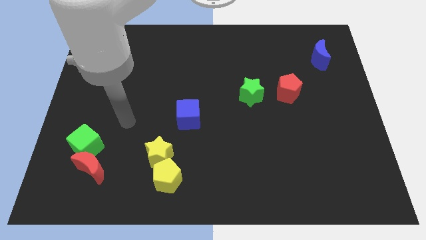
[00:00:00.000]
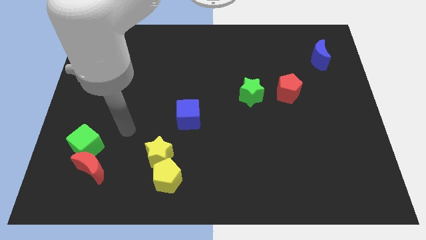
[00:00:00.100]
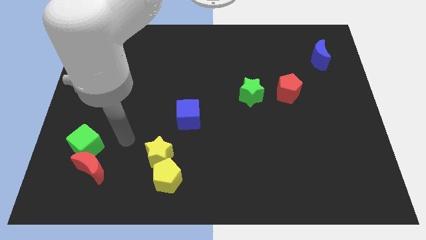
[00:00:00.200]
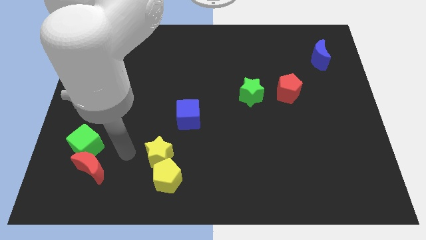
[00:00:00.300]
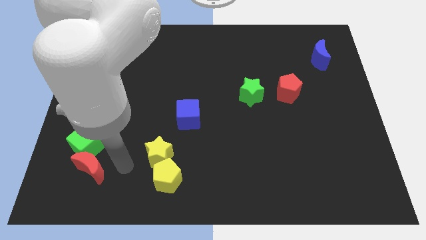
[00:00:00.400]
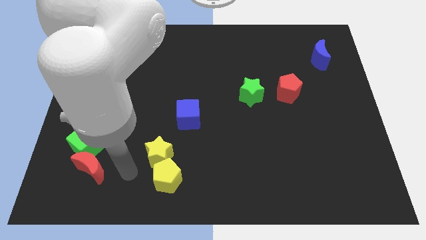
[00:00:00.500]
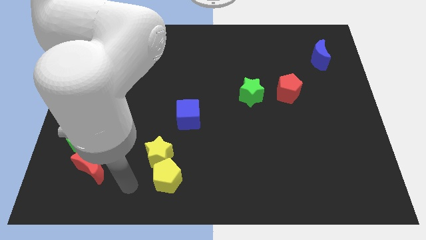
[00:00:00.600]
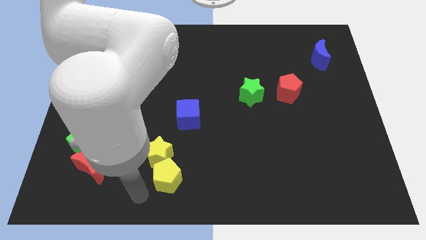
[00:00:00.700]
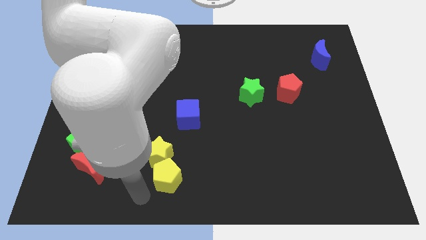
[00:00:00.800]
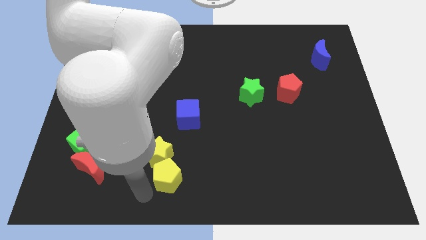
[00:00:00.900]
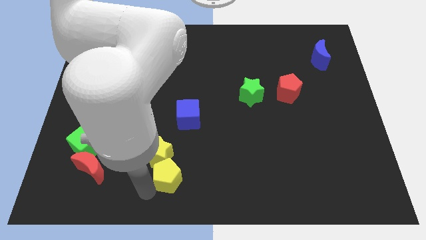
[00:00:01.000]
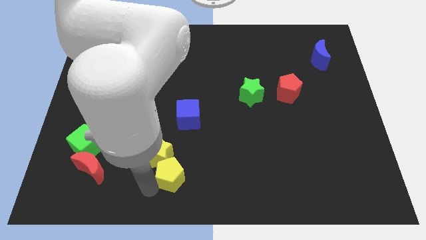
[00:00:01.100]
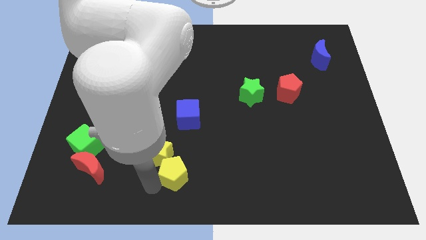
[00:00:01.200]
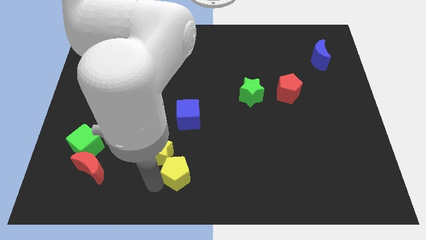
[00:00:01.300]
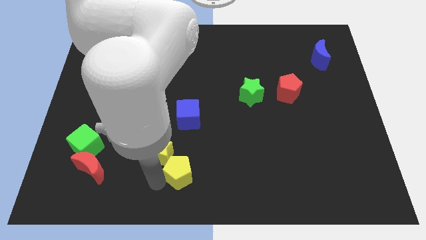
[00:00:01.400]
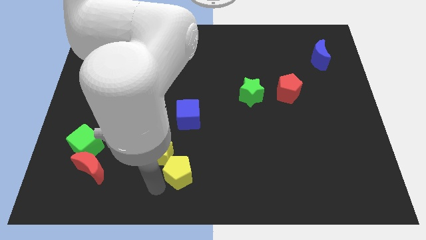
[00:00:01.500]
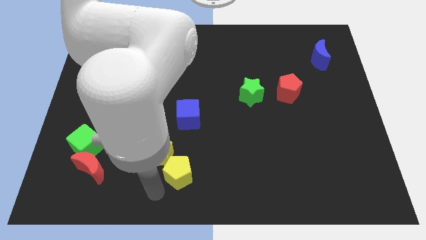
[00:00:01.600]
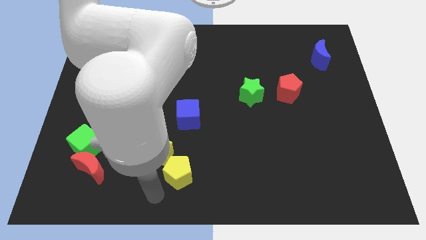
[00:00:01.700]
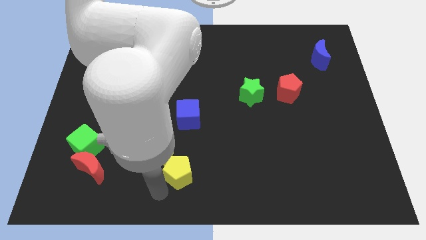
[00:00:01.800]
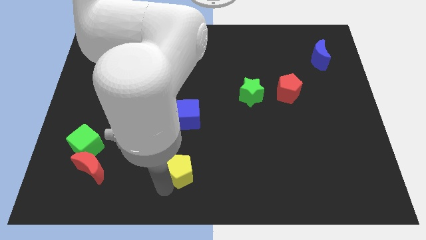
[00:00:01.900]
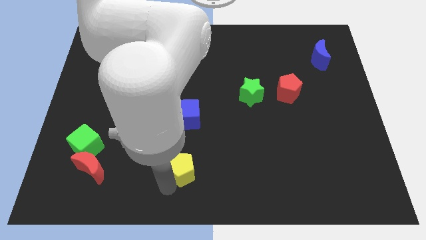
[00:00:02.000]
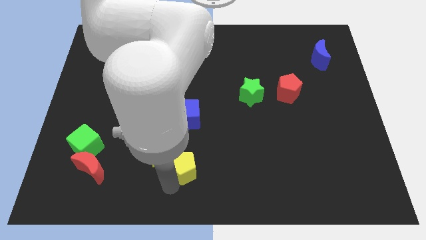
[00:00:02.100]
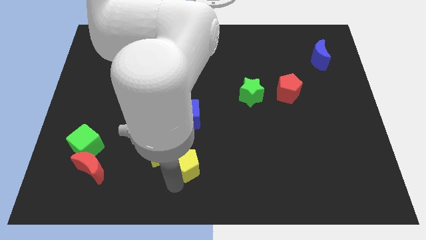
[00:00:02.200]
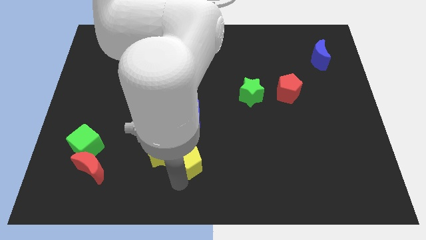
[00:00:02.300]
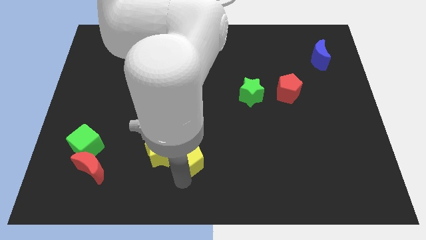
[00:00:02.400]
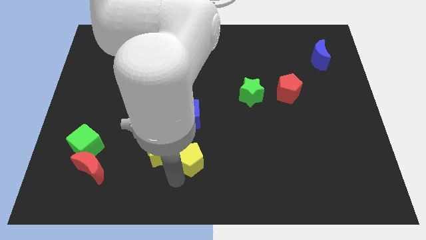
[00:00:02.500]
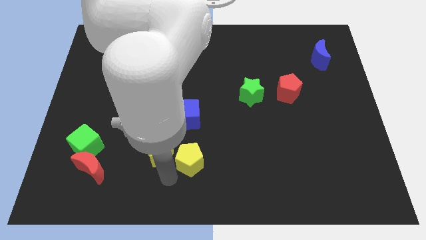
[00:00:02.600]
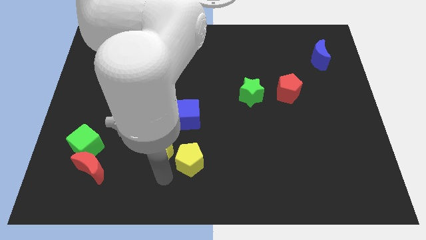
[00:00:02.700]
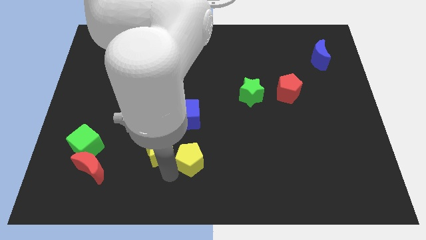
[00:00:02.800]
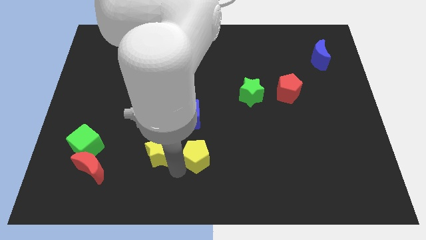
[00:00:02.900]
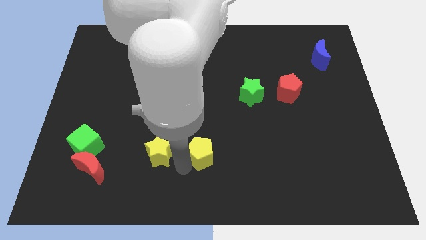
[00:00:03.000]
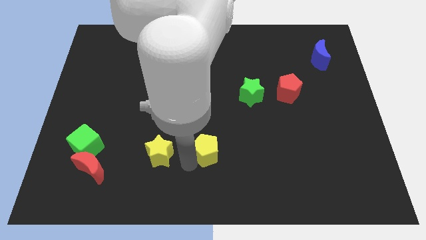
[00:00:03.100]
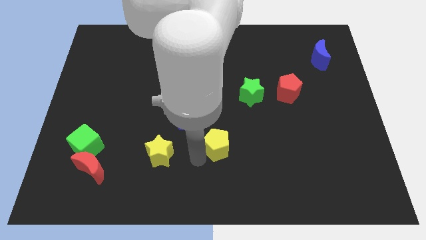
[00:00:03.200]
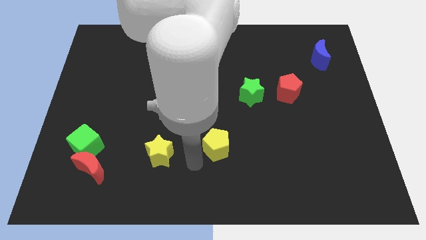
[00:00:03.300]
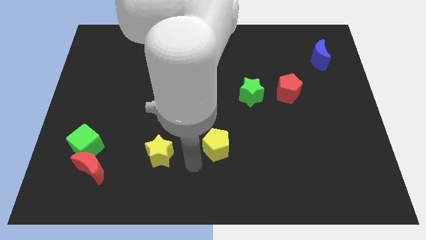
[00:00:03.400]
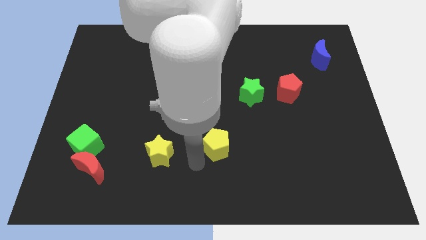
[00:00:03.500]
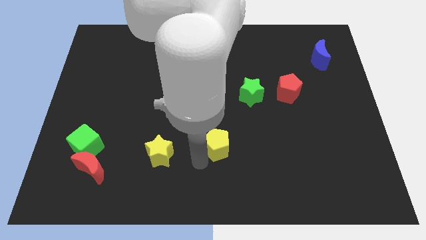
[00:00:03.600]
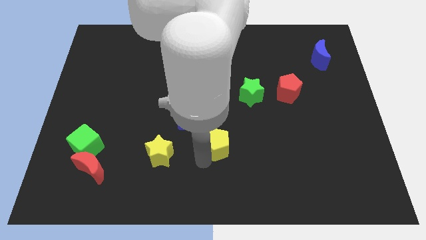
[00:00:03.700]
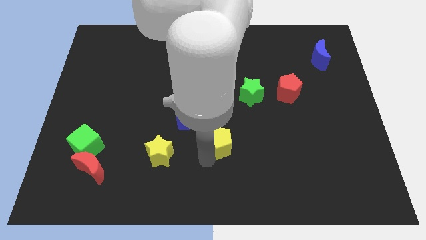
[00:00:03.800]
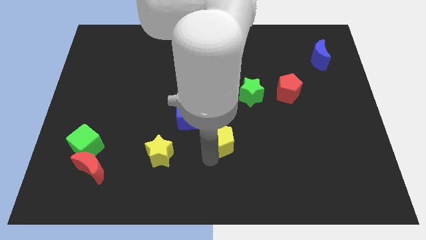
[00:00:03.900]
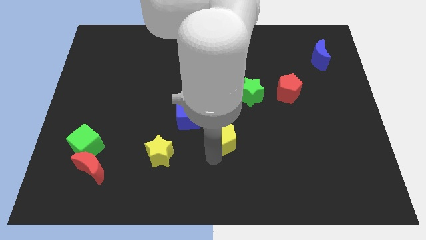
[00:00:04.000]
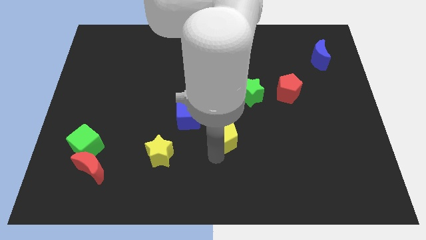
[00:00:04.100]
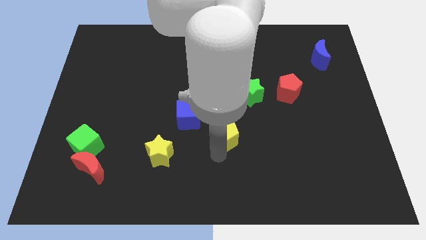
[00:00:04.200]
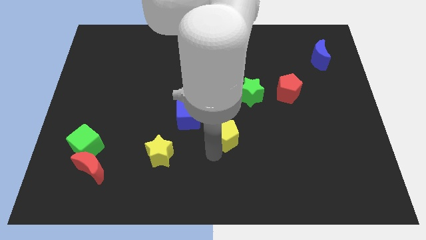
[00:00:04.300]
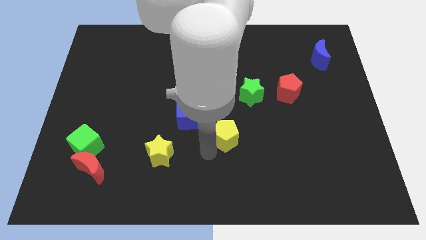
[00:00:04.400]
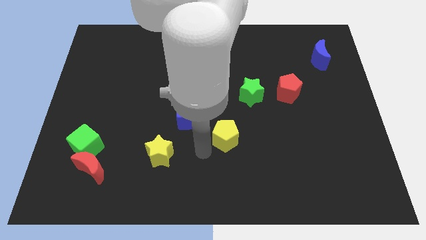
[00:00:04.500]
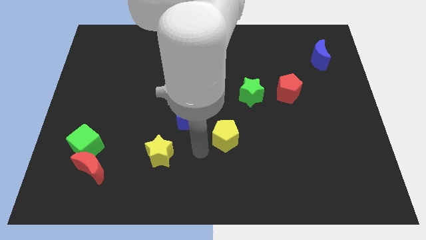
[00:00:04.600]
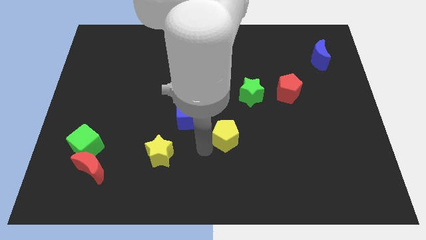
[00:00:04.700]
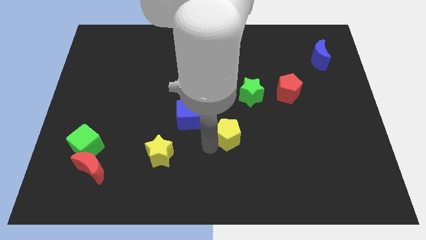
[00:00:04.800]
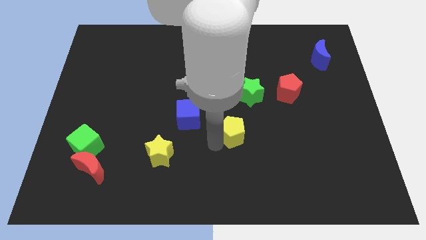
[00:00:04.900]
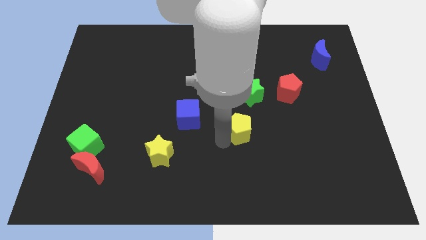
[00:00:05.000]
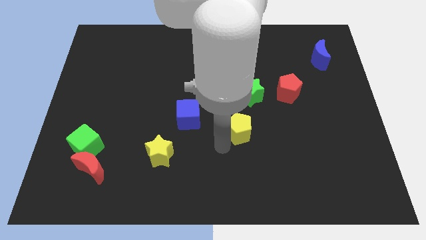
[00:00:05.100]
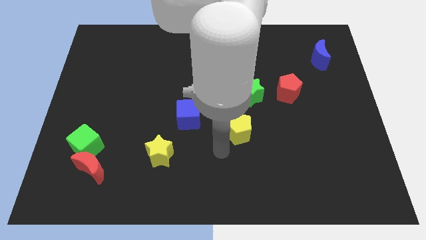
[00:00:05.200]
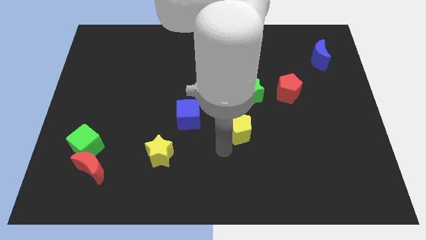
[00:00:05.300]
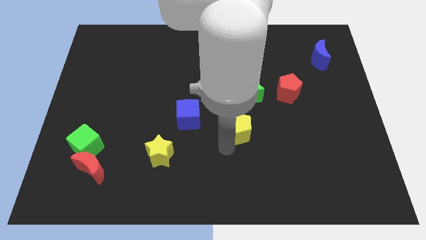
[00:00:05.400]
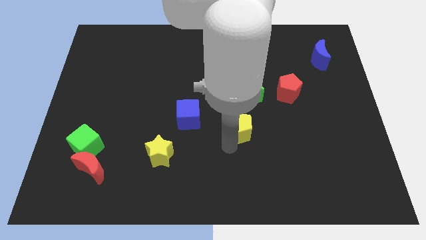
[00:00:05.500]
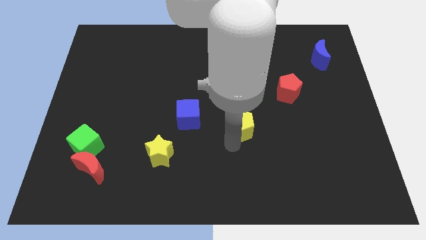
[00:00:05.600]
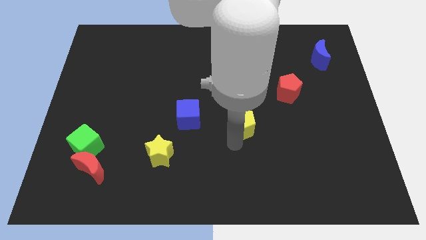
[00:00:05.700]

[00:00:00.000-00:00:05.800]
push the yellow pentagon up and then right

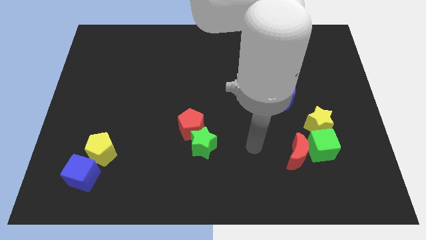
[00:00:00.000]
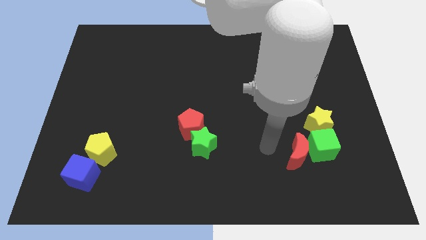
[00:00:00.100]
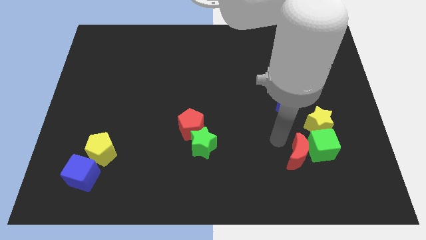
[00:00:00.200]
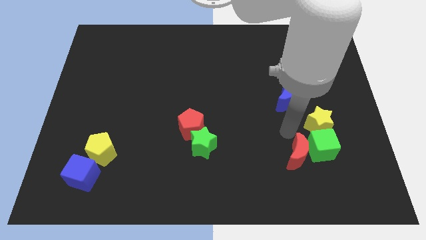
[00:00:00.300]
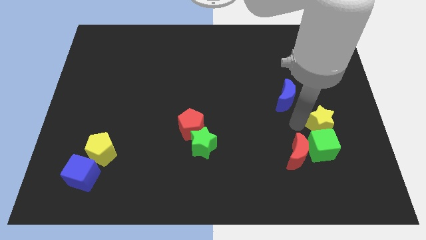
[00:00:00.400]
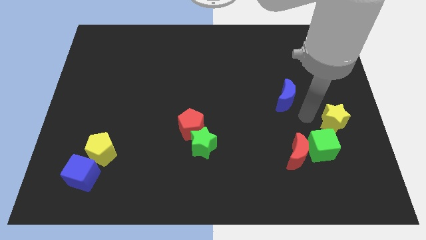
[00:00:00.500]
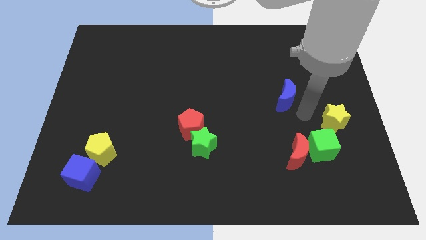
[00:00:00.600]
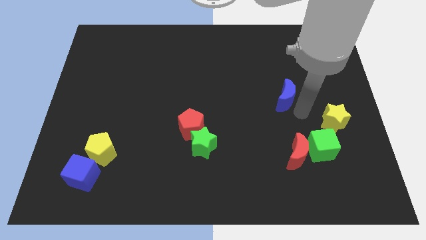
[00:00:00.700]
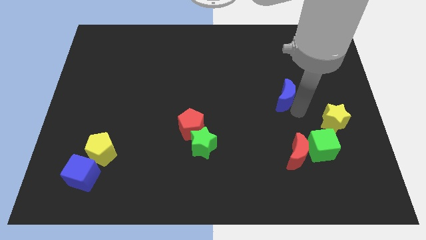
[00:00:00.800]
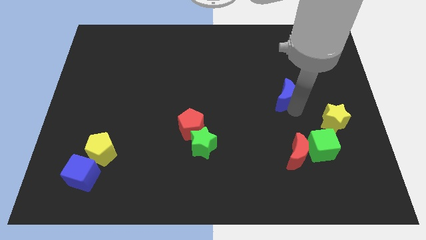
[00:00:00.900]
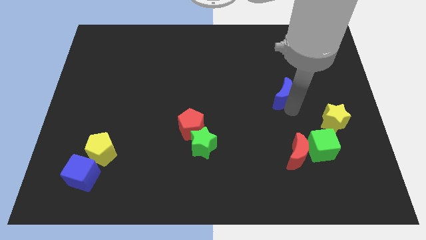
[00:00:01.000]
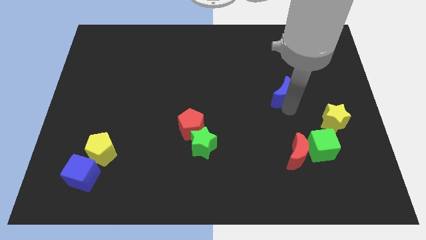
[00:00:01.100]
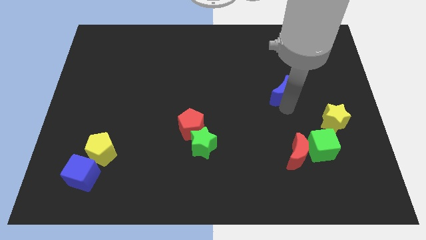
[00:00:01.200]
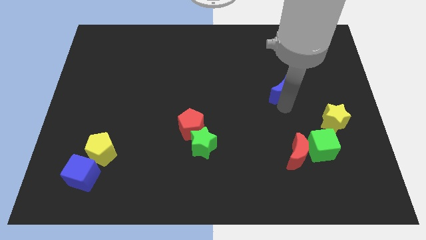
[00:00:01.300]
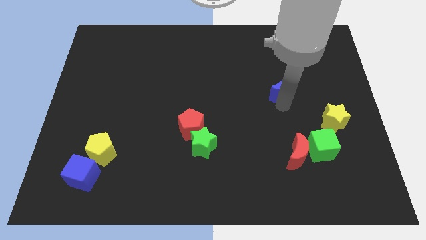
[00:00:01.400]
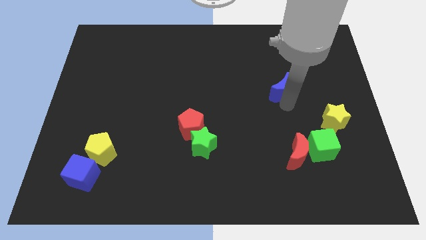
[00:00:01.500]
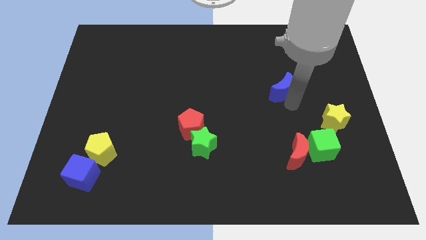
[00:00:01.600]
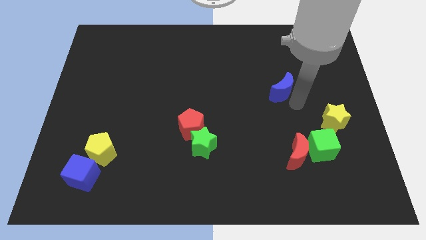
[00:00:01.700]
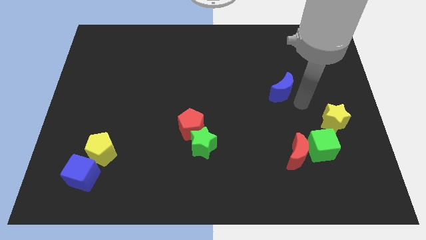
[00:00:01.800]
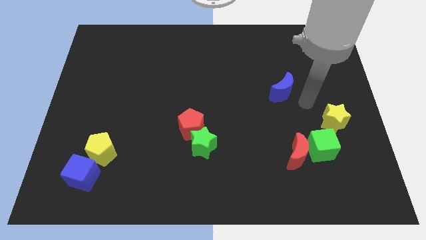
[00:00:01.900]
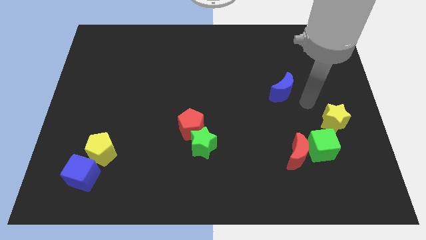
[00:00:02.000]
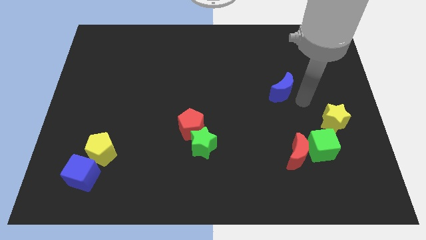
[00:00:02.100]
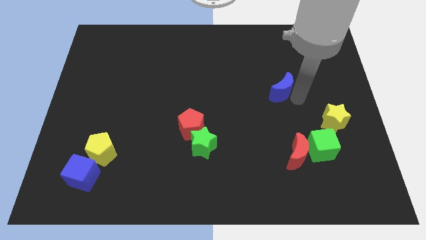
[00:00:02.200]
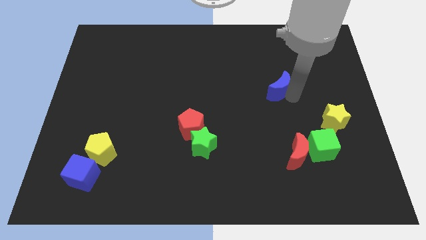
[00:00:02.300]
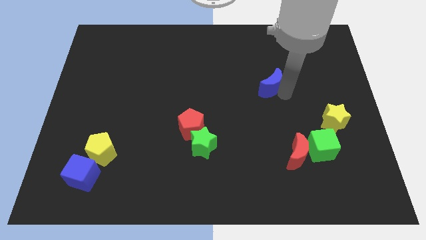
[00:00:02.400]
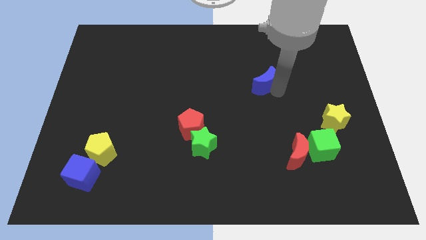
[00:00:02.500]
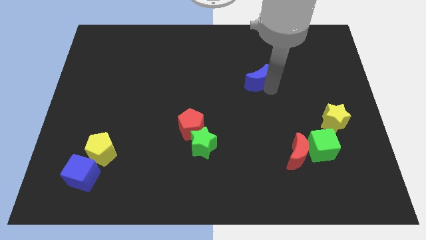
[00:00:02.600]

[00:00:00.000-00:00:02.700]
slightly move the blue moon up and left diagonally
